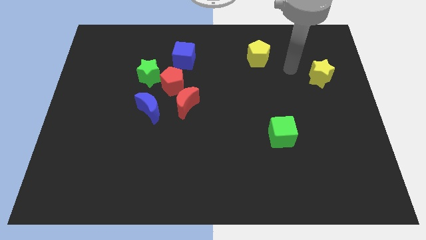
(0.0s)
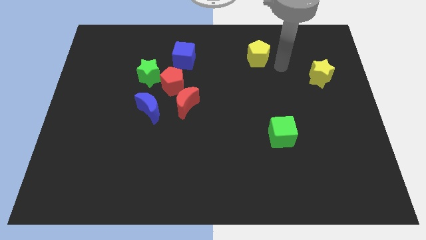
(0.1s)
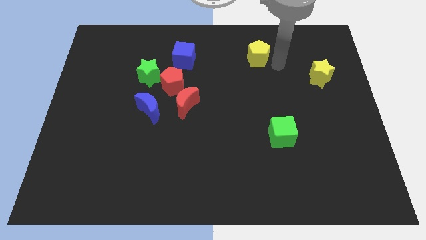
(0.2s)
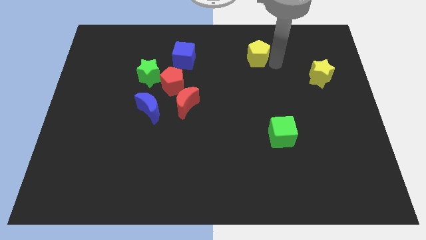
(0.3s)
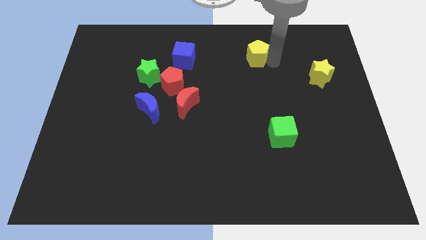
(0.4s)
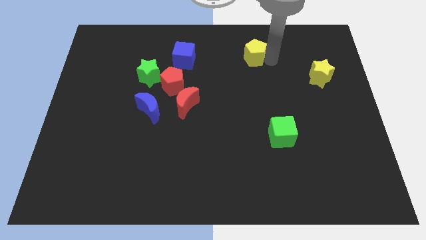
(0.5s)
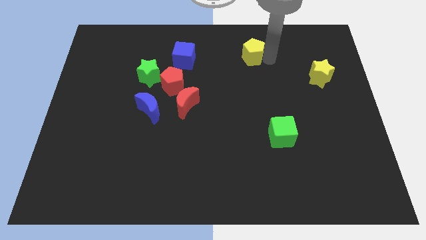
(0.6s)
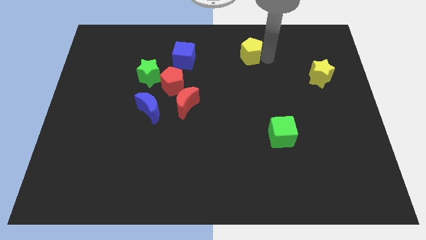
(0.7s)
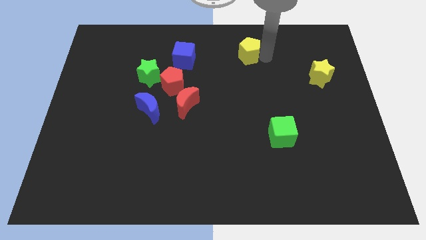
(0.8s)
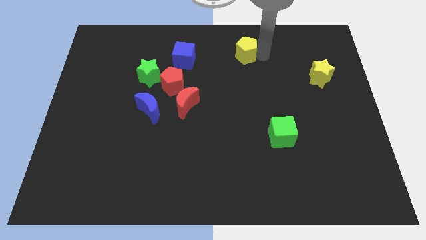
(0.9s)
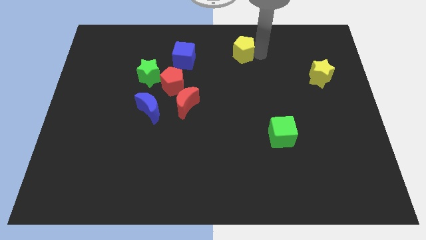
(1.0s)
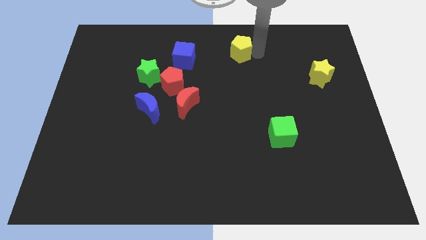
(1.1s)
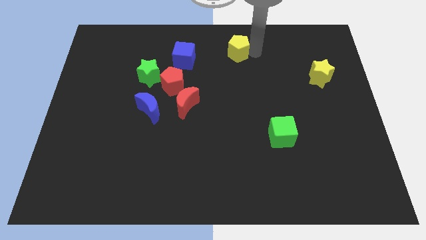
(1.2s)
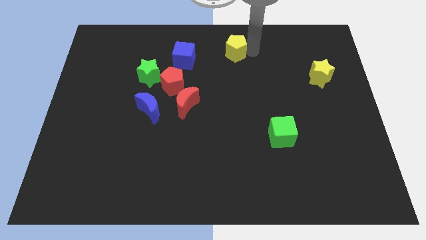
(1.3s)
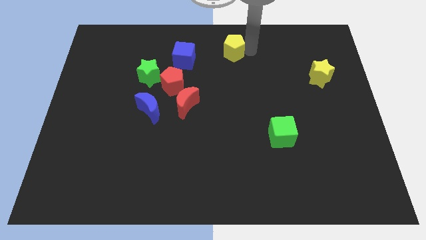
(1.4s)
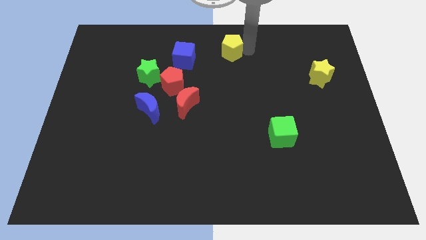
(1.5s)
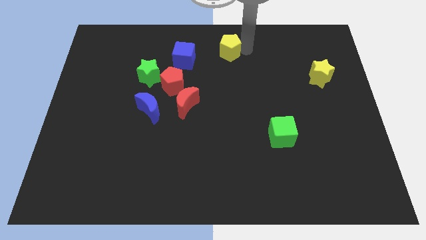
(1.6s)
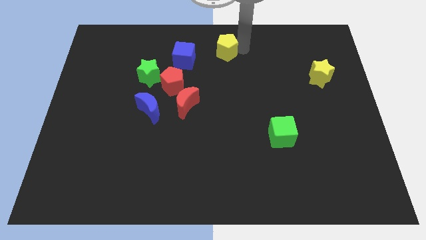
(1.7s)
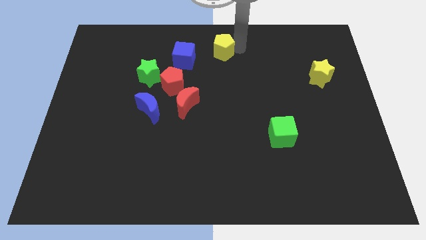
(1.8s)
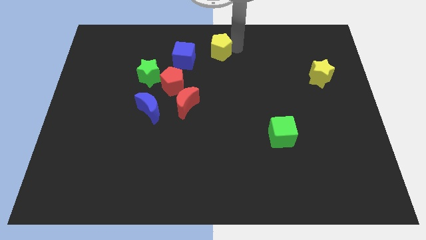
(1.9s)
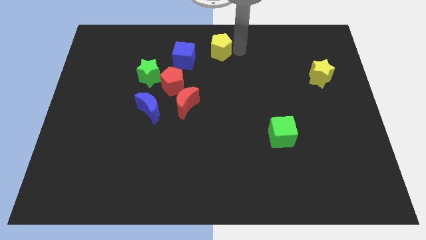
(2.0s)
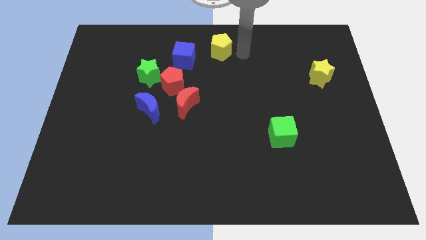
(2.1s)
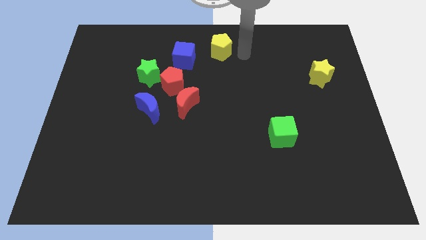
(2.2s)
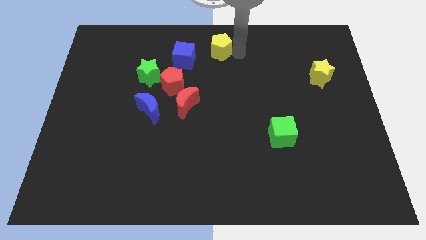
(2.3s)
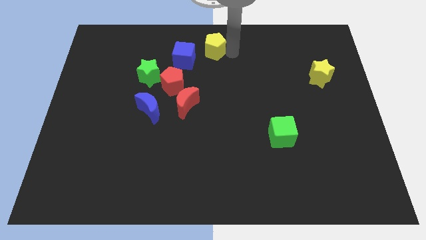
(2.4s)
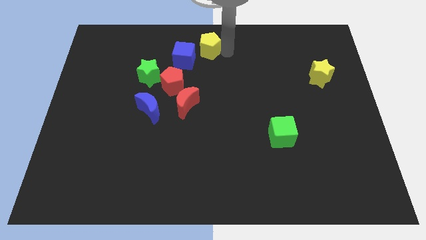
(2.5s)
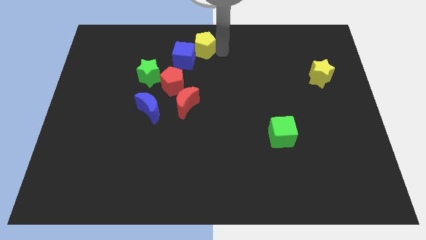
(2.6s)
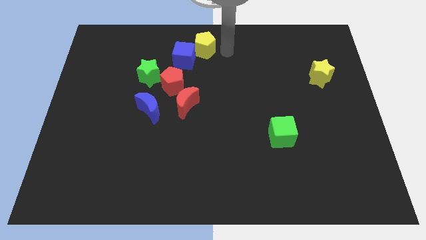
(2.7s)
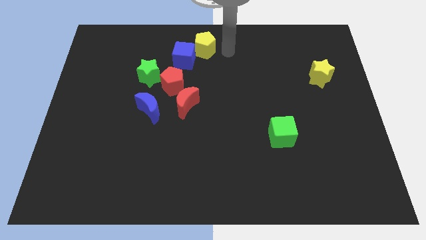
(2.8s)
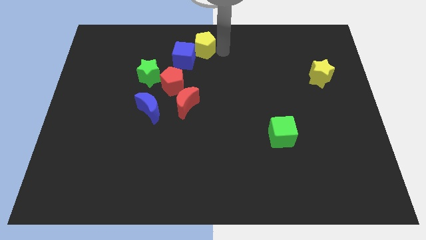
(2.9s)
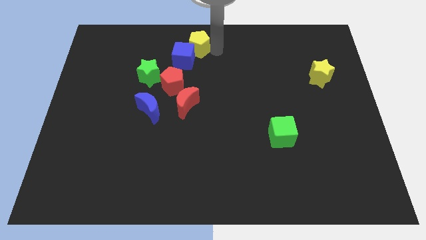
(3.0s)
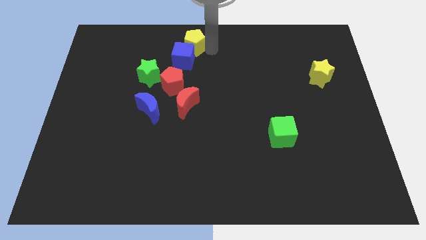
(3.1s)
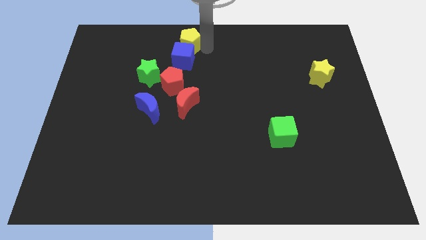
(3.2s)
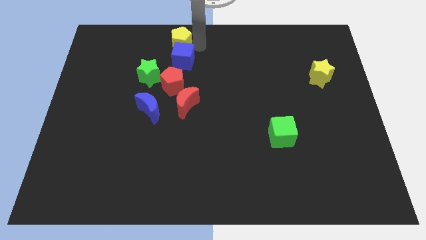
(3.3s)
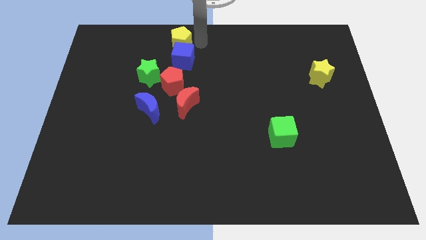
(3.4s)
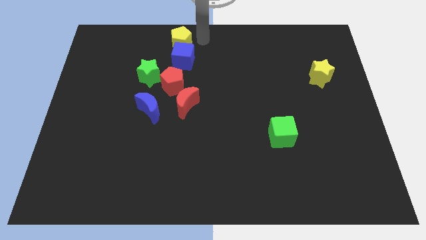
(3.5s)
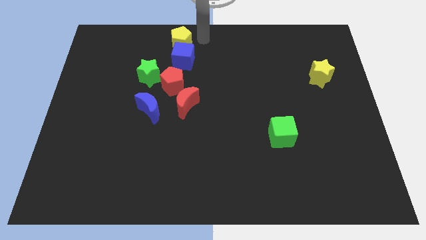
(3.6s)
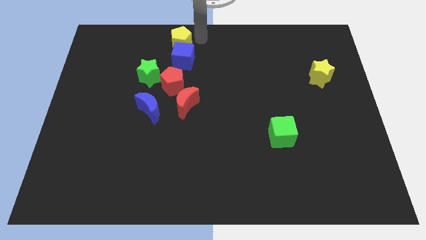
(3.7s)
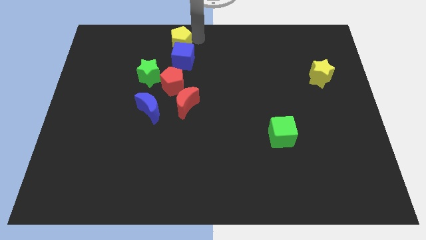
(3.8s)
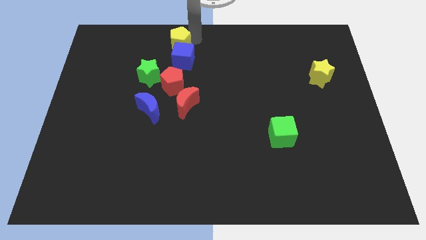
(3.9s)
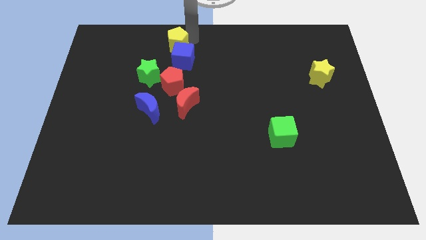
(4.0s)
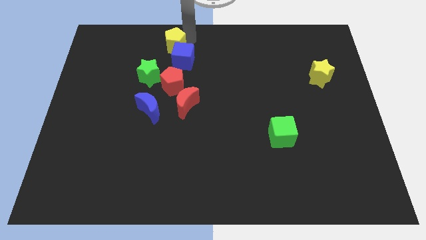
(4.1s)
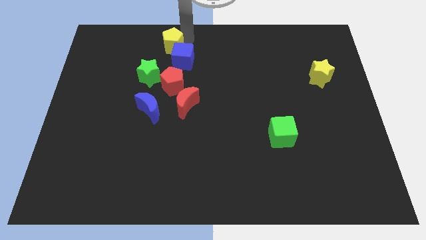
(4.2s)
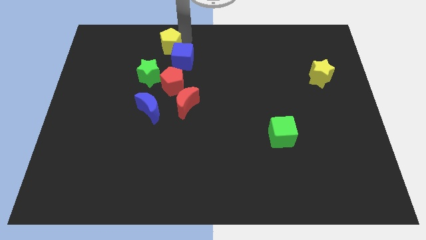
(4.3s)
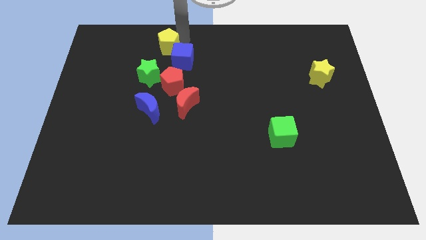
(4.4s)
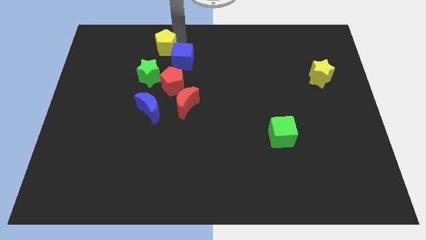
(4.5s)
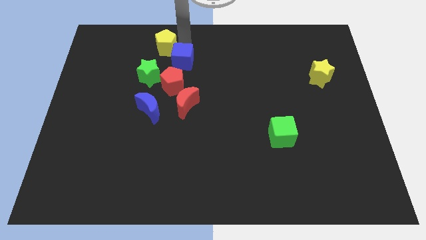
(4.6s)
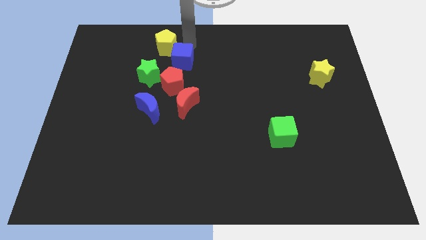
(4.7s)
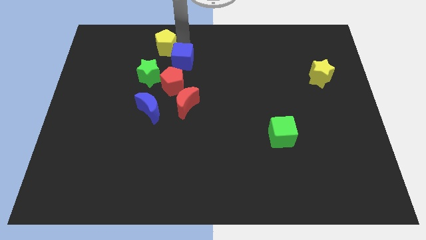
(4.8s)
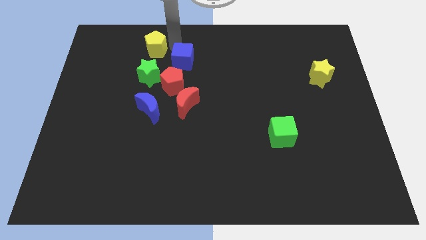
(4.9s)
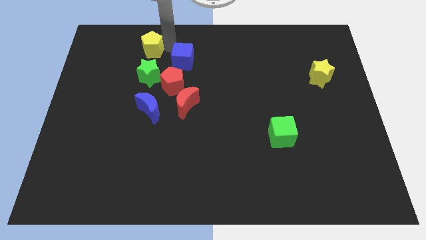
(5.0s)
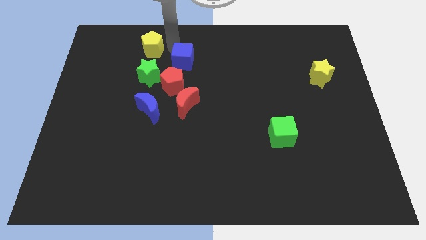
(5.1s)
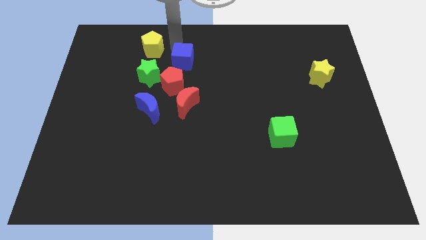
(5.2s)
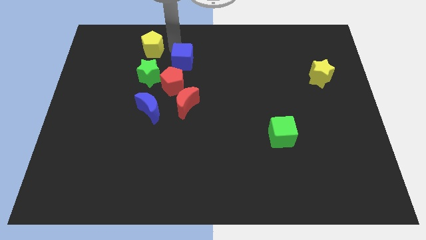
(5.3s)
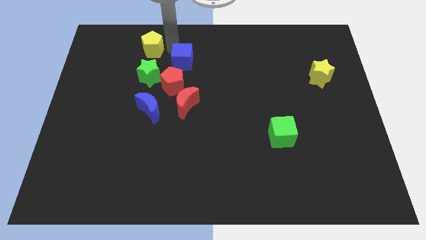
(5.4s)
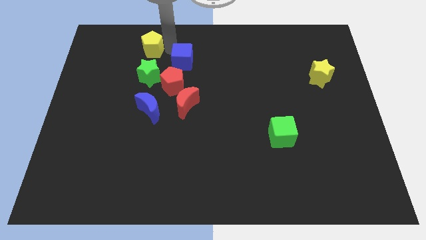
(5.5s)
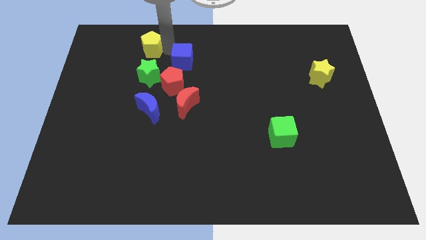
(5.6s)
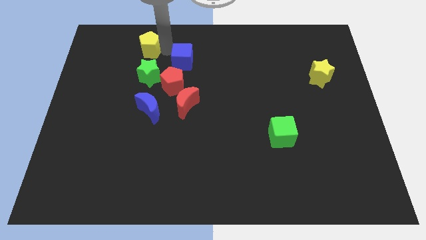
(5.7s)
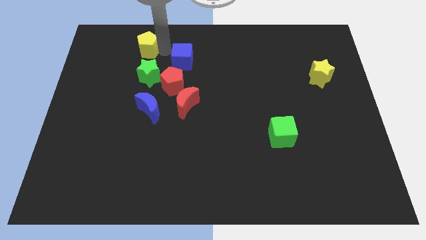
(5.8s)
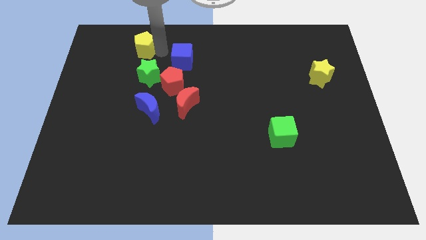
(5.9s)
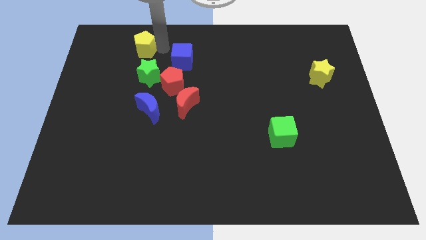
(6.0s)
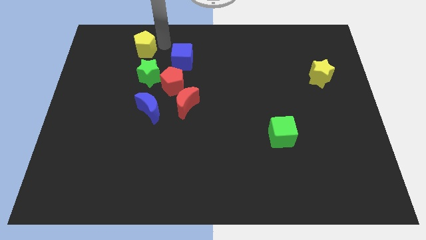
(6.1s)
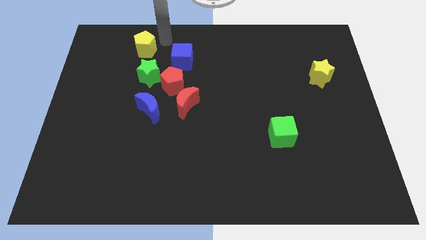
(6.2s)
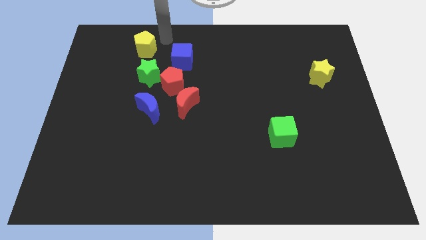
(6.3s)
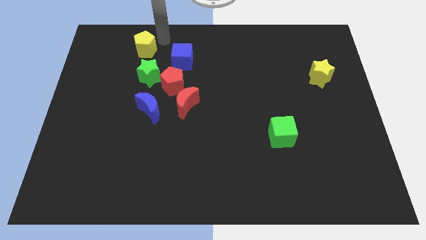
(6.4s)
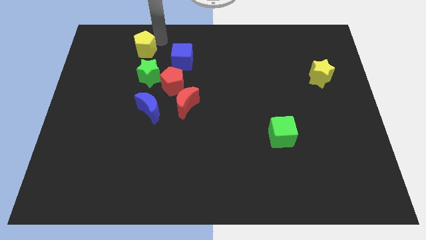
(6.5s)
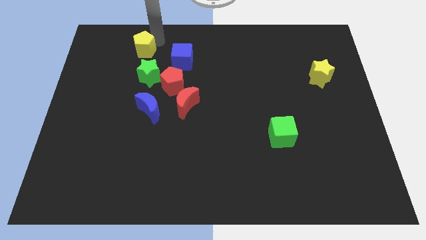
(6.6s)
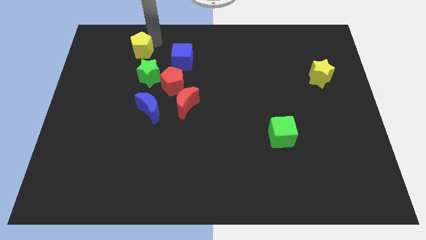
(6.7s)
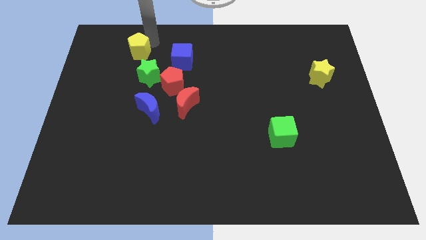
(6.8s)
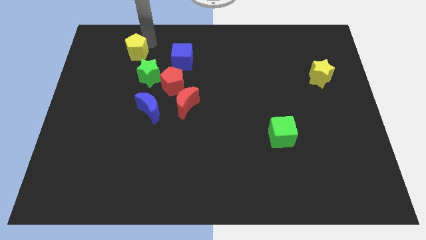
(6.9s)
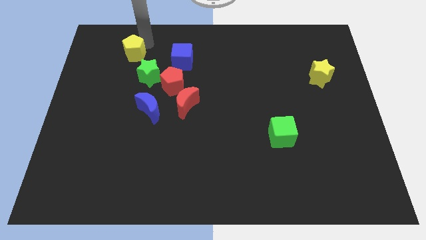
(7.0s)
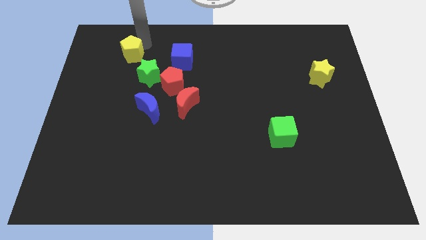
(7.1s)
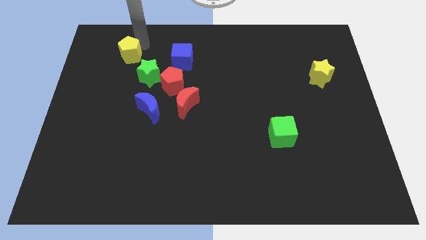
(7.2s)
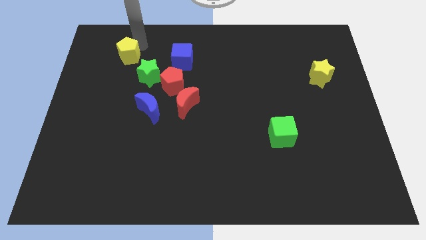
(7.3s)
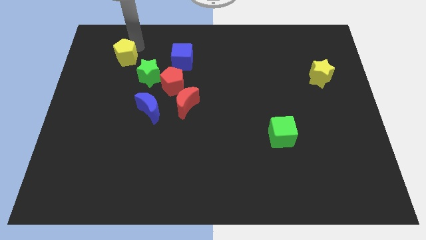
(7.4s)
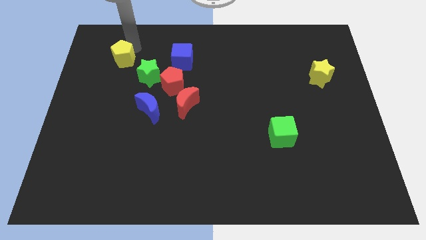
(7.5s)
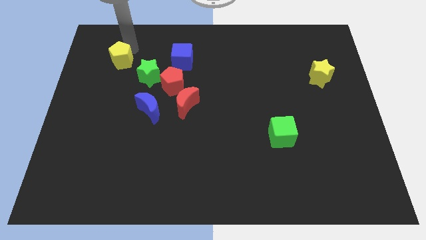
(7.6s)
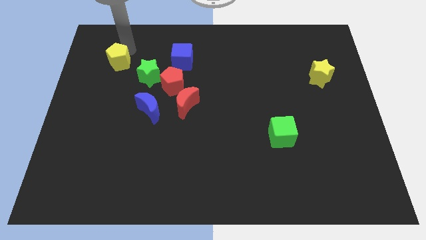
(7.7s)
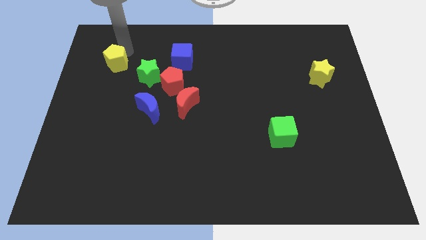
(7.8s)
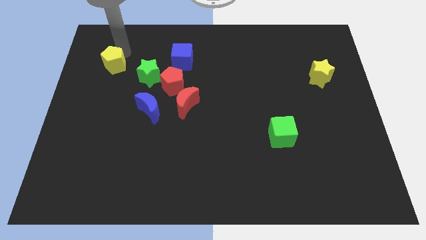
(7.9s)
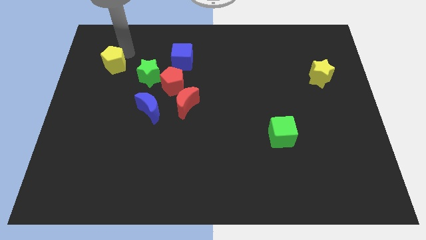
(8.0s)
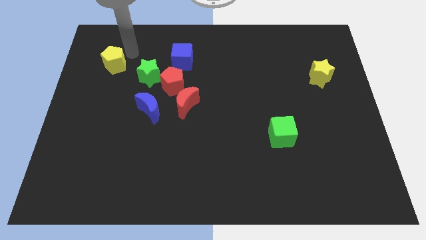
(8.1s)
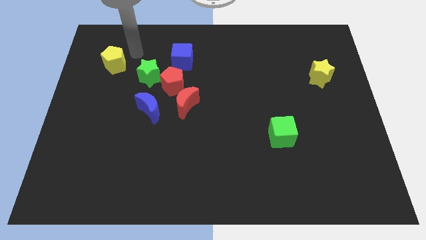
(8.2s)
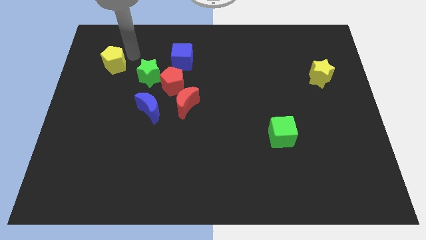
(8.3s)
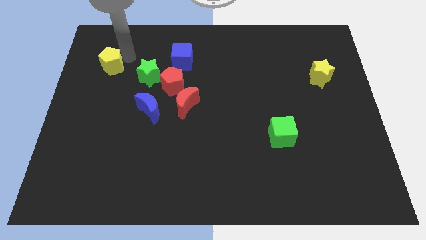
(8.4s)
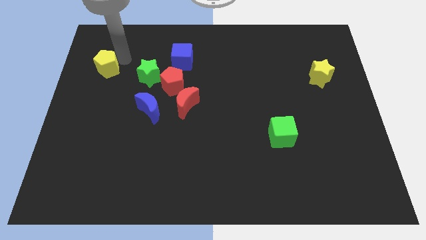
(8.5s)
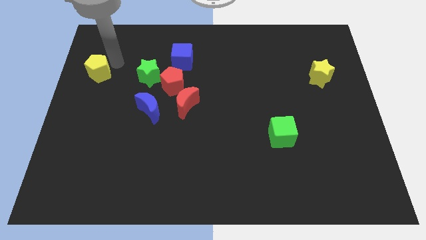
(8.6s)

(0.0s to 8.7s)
move the yellow pentagon to the left side
